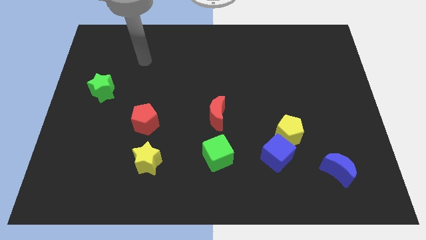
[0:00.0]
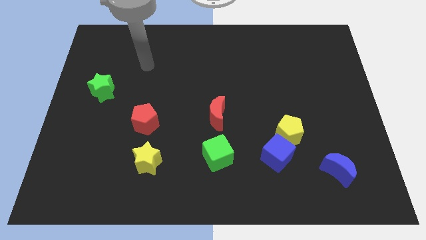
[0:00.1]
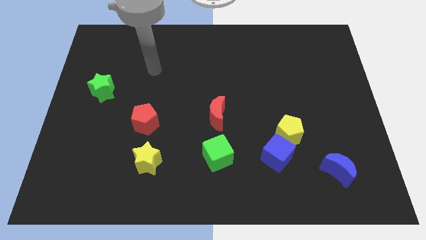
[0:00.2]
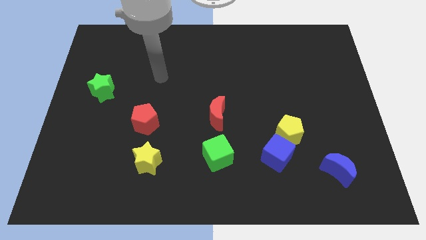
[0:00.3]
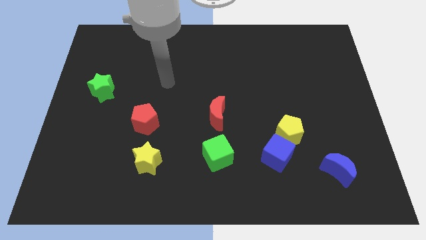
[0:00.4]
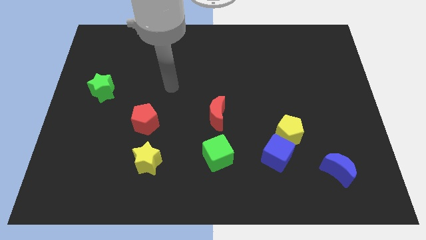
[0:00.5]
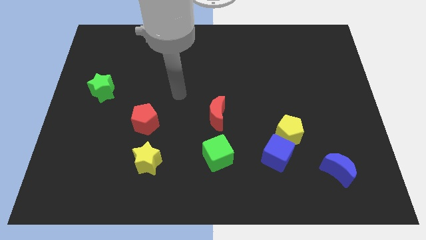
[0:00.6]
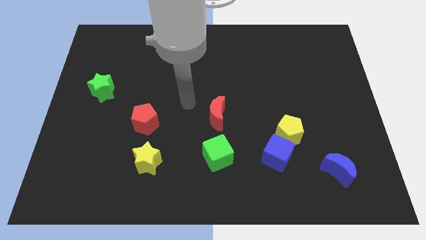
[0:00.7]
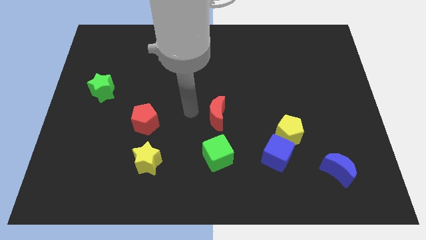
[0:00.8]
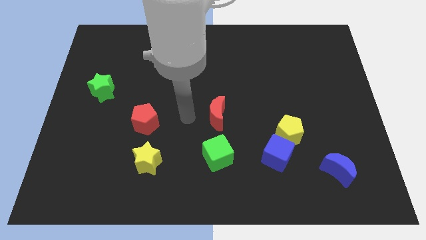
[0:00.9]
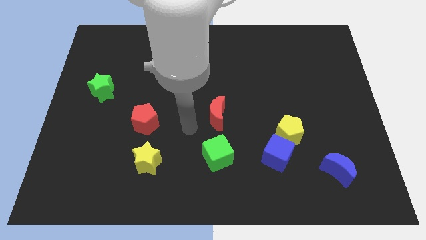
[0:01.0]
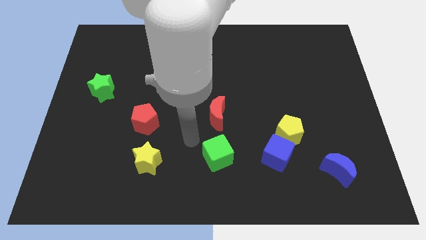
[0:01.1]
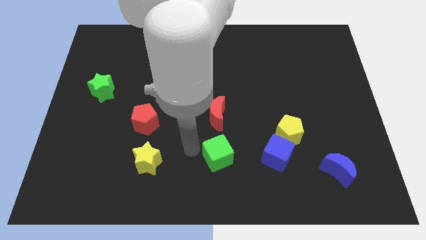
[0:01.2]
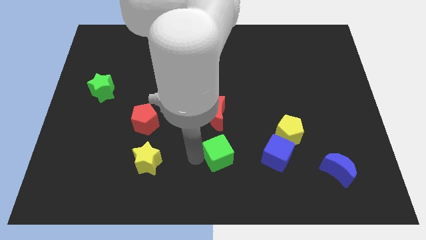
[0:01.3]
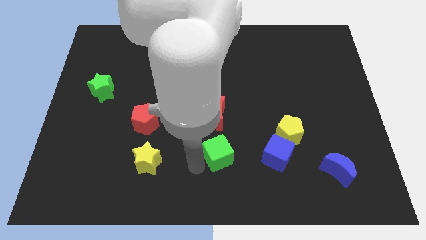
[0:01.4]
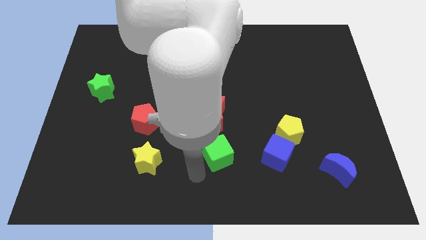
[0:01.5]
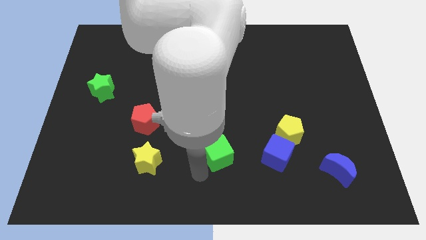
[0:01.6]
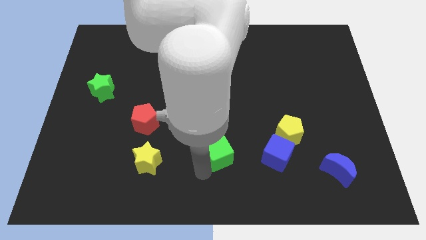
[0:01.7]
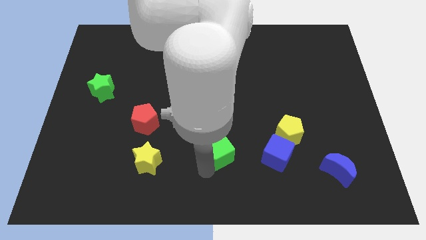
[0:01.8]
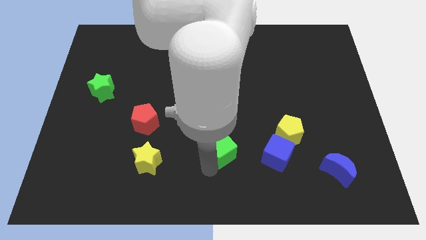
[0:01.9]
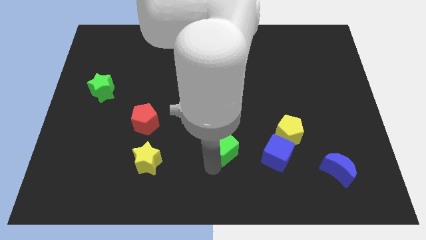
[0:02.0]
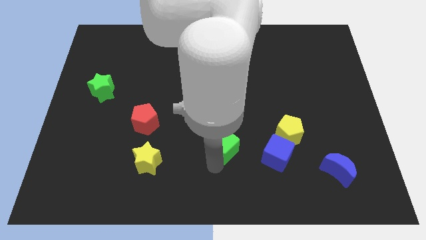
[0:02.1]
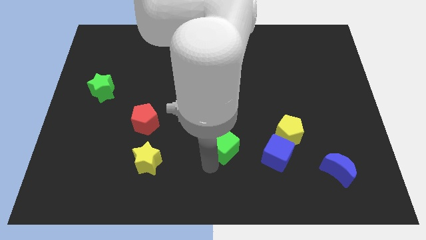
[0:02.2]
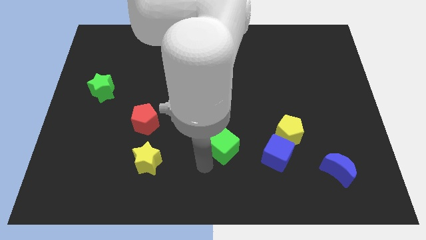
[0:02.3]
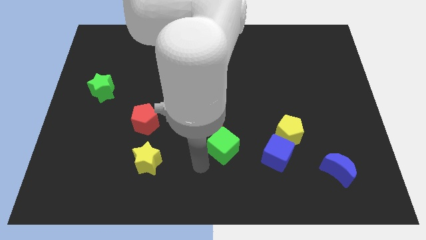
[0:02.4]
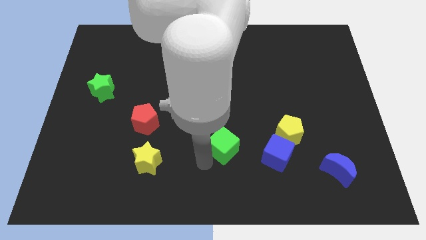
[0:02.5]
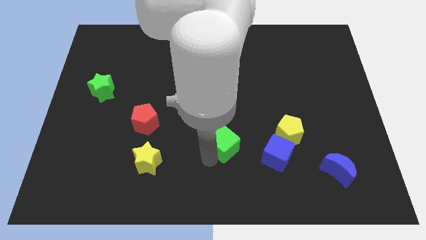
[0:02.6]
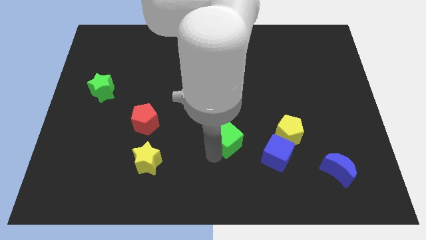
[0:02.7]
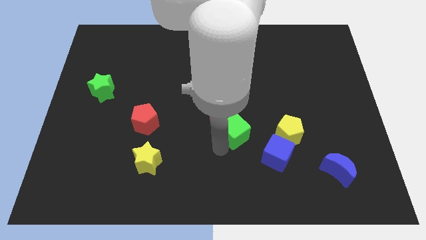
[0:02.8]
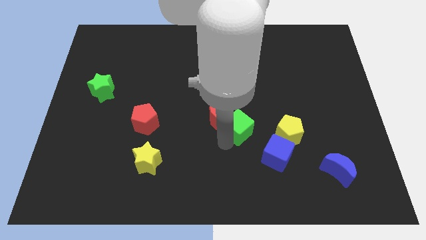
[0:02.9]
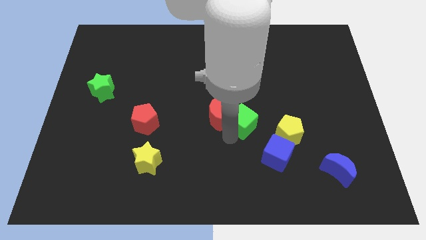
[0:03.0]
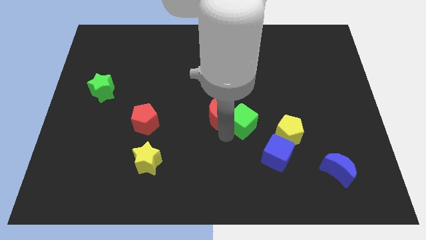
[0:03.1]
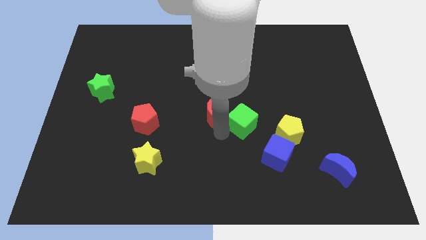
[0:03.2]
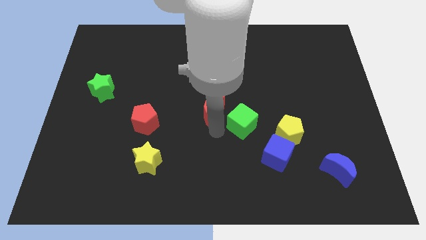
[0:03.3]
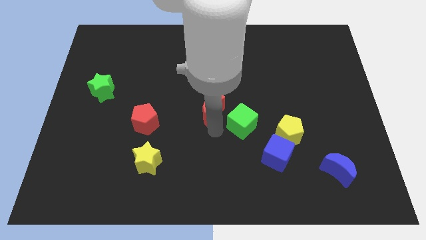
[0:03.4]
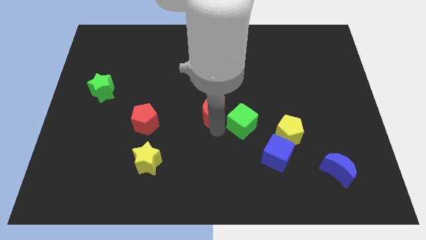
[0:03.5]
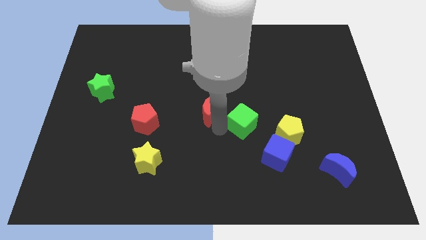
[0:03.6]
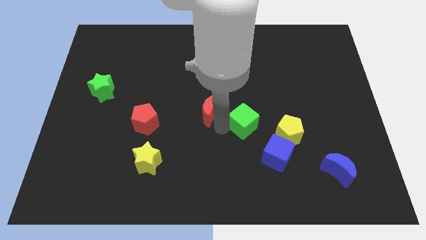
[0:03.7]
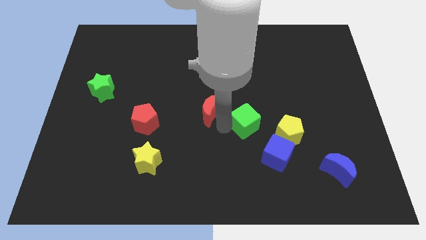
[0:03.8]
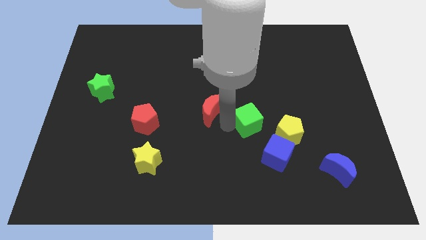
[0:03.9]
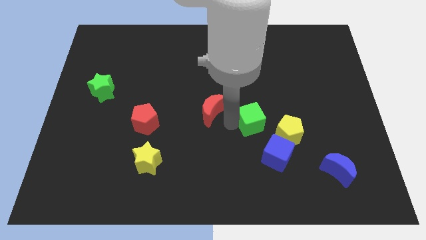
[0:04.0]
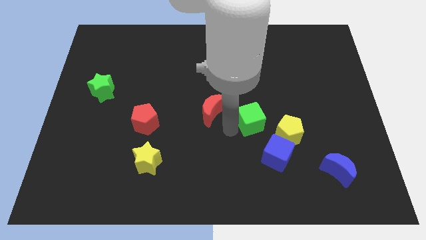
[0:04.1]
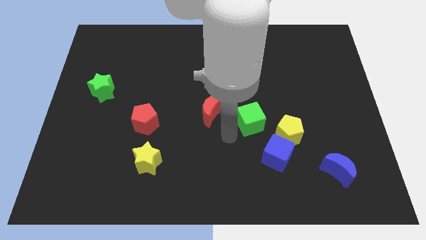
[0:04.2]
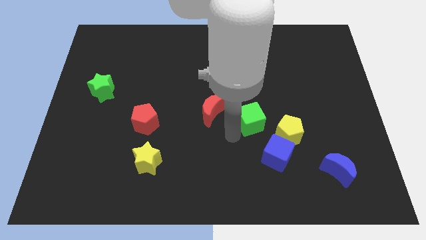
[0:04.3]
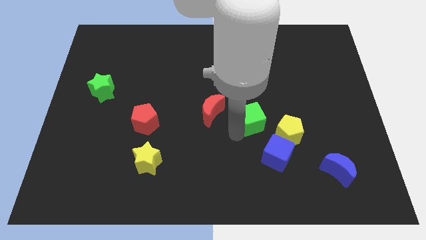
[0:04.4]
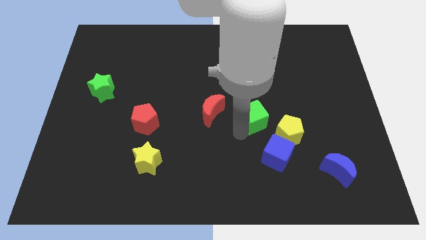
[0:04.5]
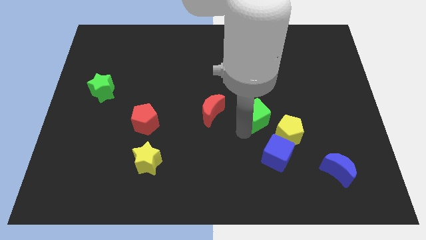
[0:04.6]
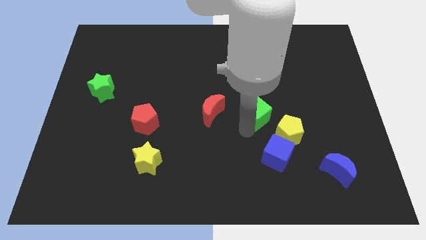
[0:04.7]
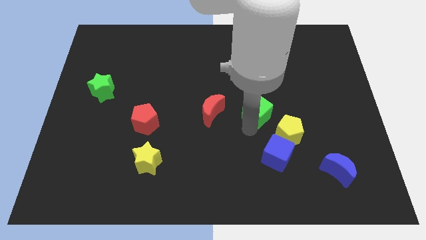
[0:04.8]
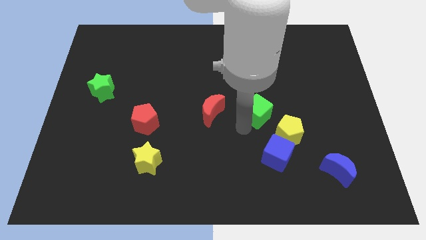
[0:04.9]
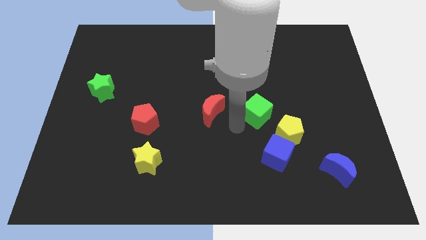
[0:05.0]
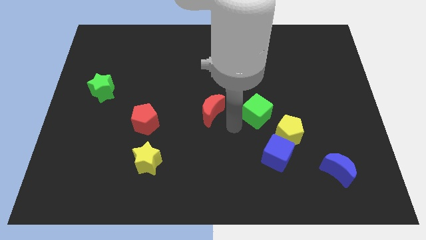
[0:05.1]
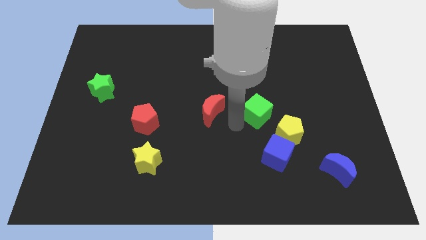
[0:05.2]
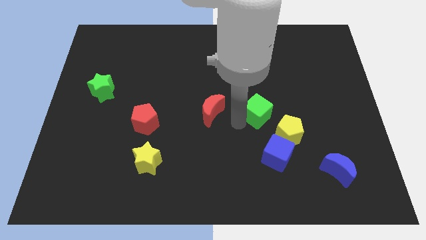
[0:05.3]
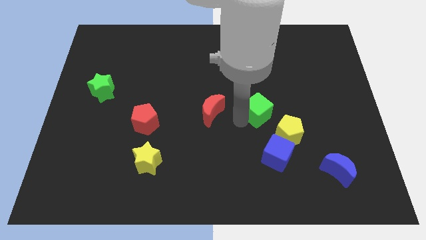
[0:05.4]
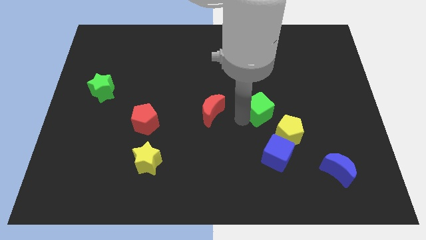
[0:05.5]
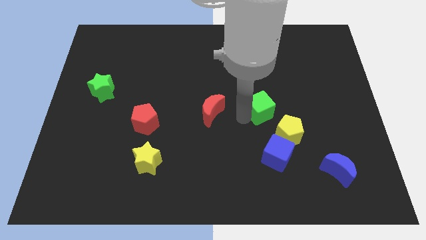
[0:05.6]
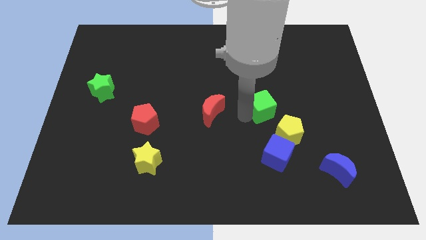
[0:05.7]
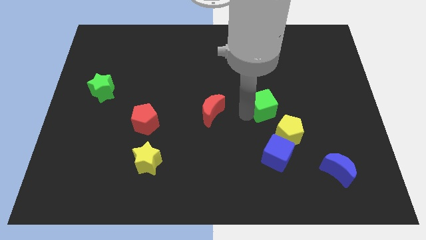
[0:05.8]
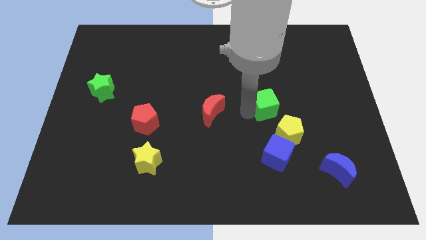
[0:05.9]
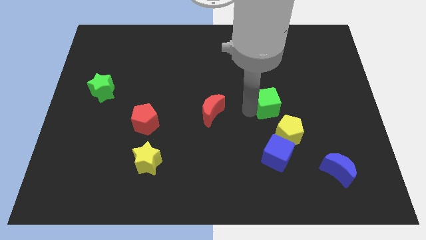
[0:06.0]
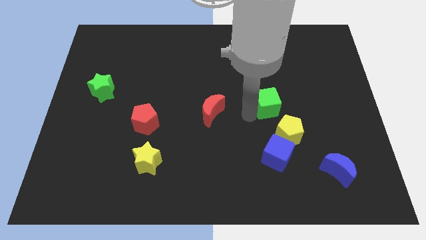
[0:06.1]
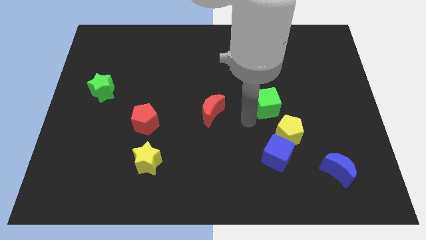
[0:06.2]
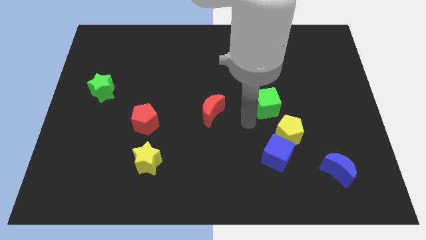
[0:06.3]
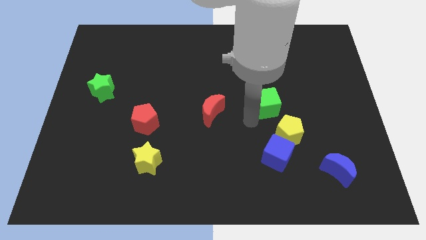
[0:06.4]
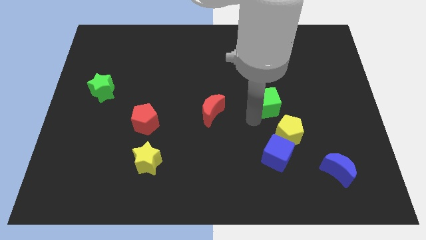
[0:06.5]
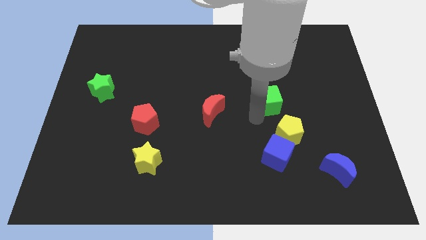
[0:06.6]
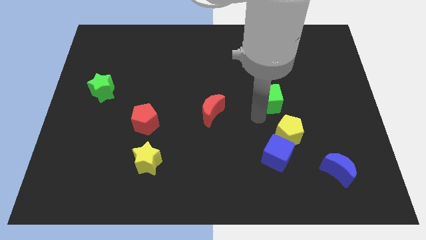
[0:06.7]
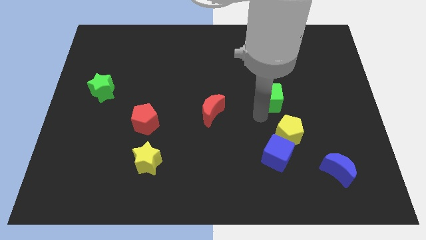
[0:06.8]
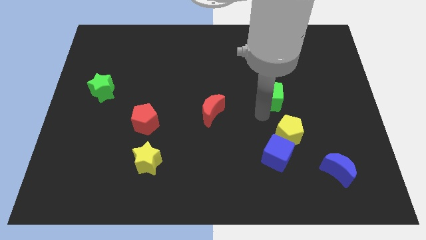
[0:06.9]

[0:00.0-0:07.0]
move the green cube up and then right

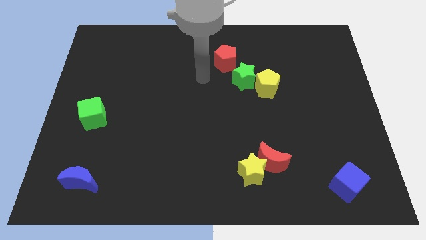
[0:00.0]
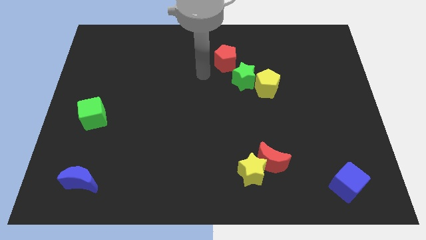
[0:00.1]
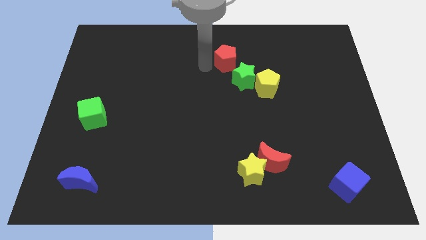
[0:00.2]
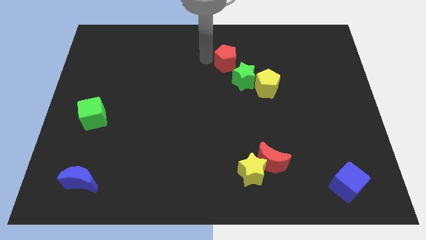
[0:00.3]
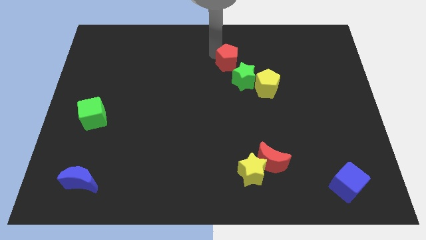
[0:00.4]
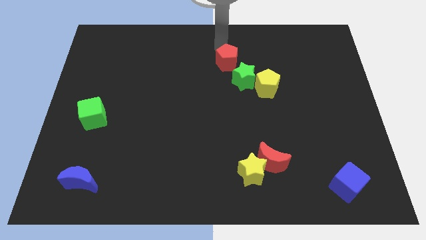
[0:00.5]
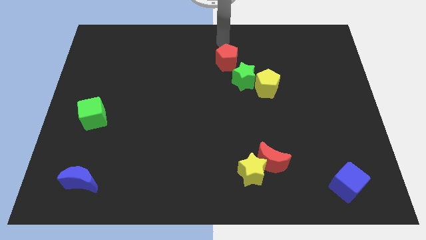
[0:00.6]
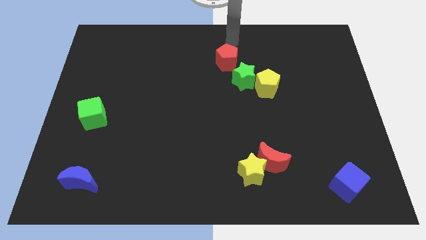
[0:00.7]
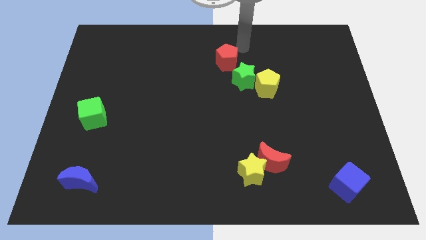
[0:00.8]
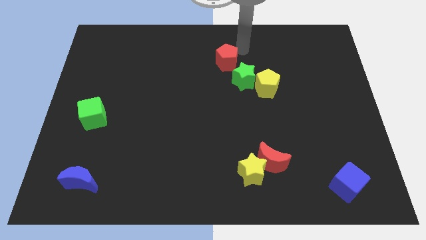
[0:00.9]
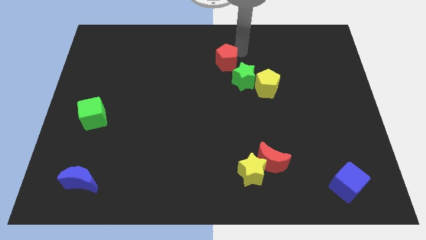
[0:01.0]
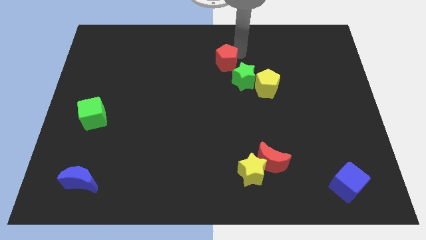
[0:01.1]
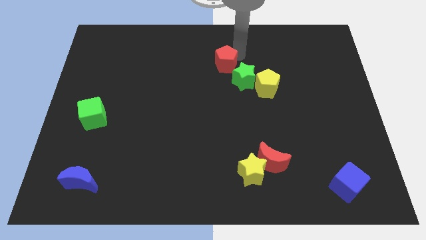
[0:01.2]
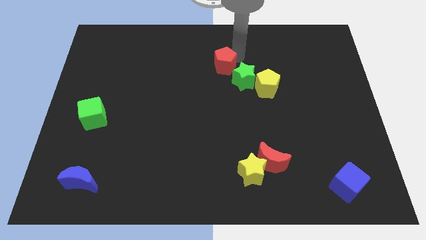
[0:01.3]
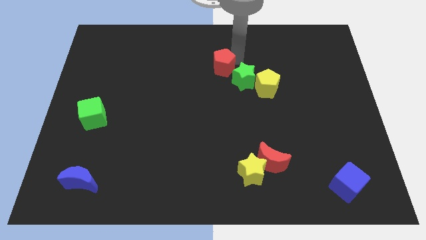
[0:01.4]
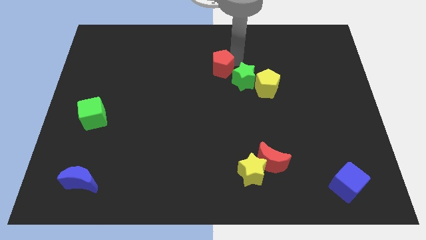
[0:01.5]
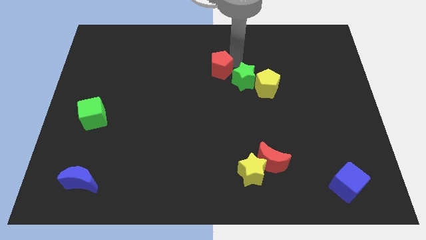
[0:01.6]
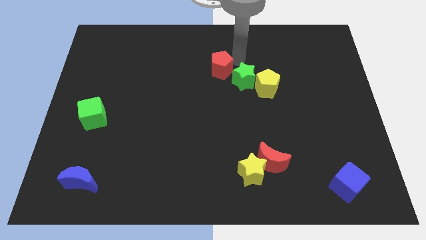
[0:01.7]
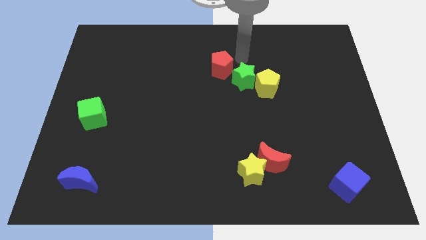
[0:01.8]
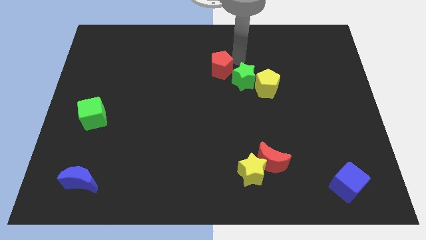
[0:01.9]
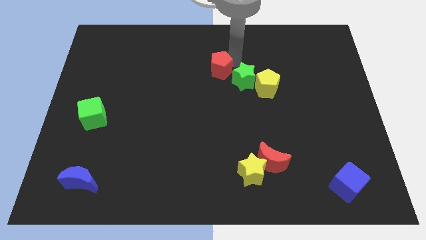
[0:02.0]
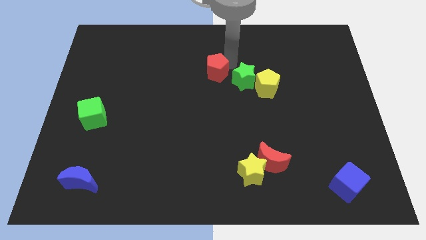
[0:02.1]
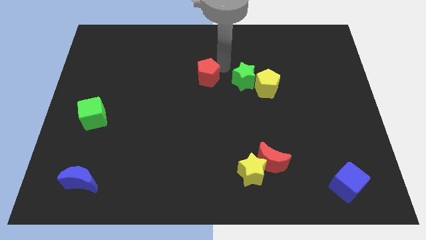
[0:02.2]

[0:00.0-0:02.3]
slightly move the red pentagon downwards and to the left
